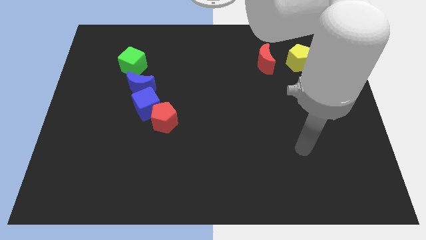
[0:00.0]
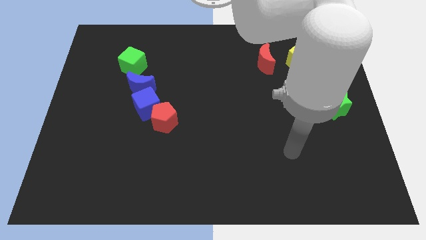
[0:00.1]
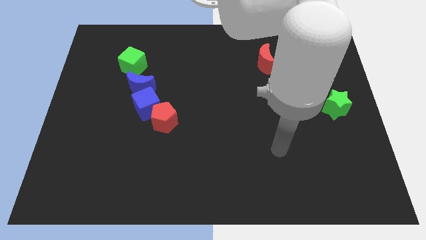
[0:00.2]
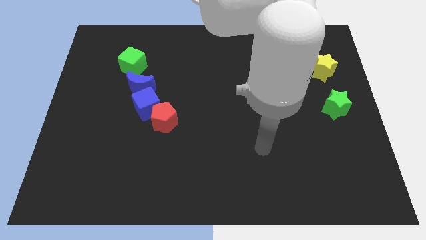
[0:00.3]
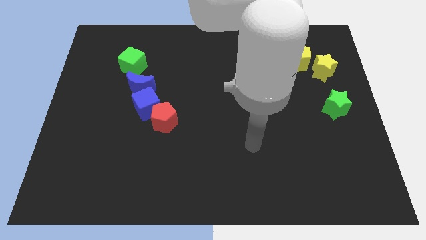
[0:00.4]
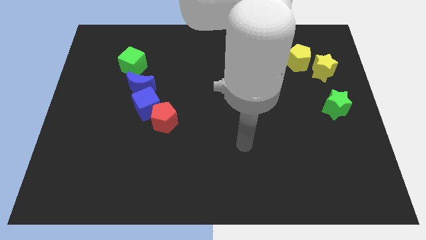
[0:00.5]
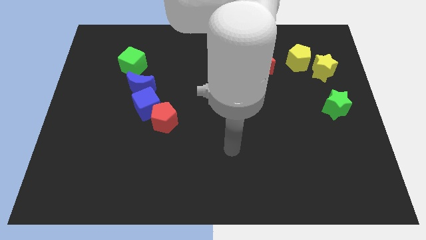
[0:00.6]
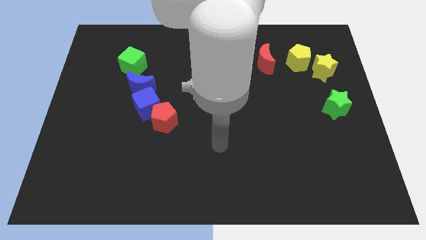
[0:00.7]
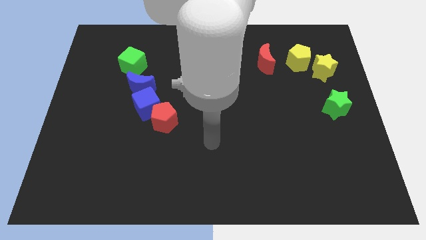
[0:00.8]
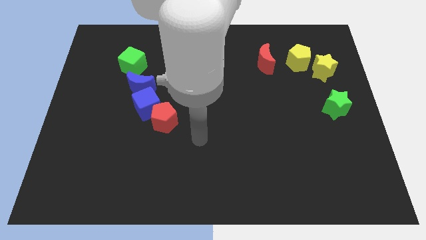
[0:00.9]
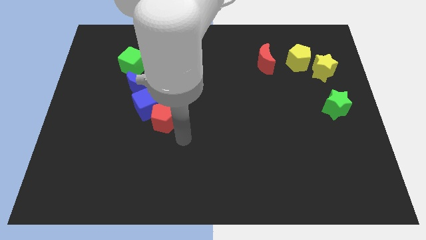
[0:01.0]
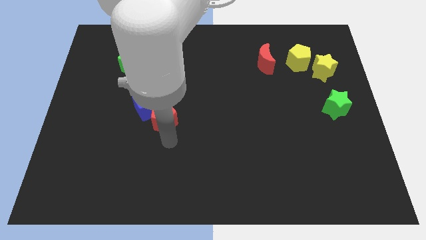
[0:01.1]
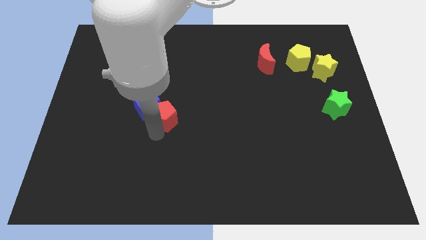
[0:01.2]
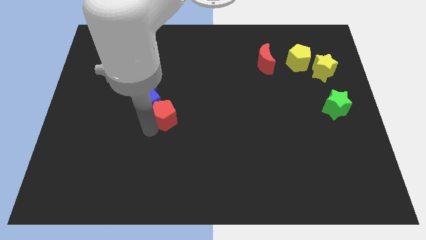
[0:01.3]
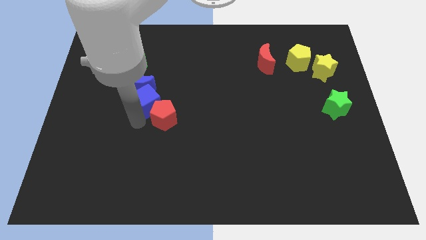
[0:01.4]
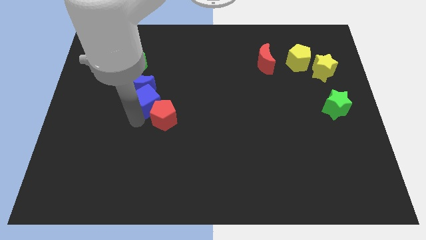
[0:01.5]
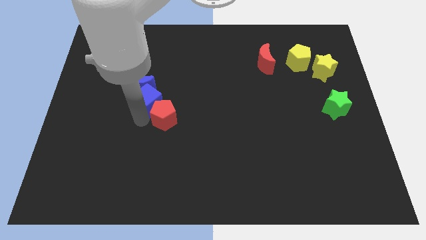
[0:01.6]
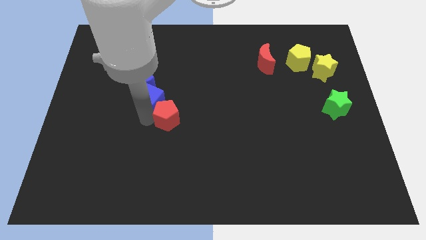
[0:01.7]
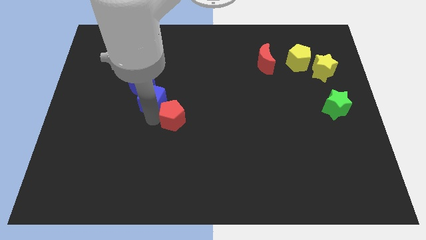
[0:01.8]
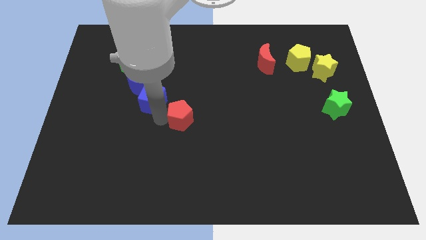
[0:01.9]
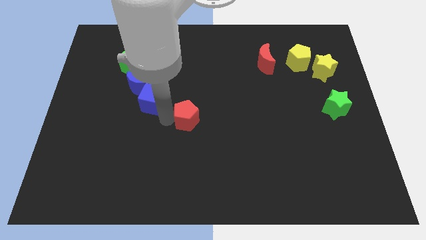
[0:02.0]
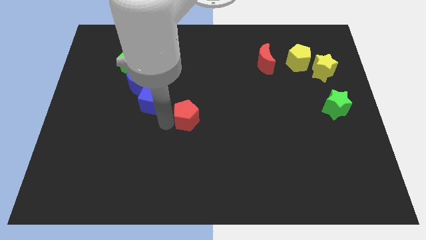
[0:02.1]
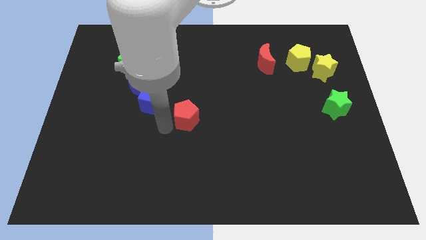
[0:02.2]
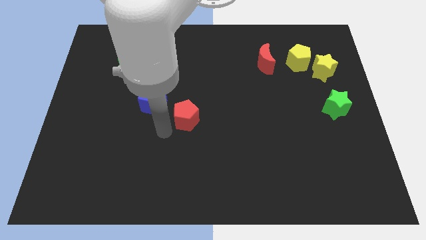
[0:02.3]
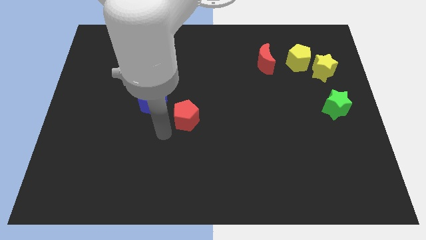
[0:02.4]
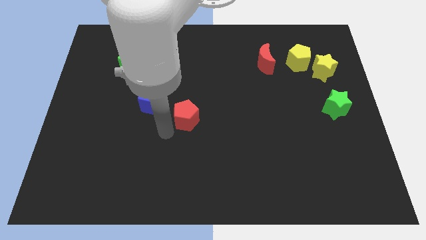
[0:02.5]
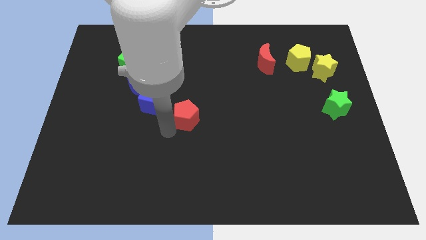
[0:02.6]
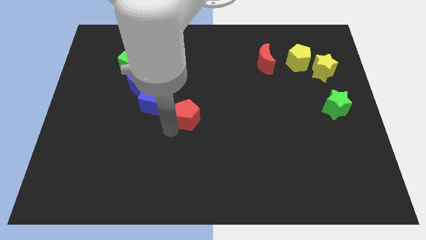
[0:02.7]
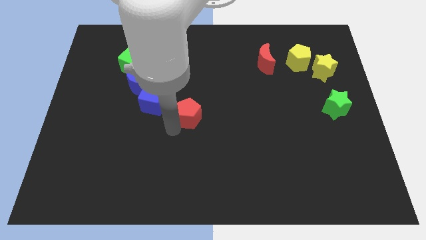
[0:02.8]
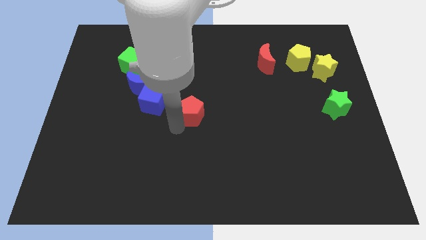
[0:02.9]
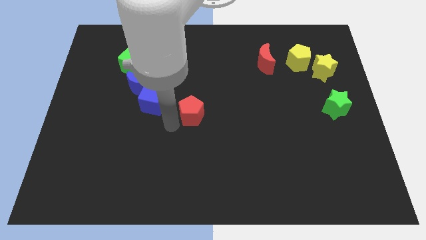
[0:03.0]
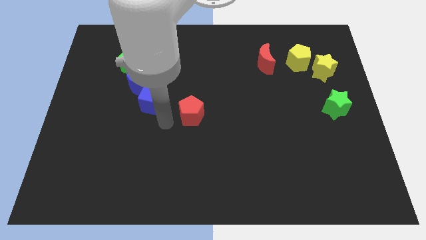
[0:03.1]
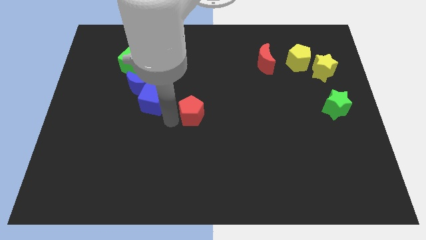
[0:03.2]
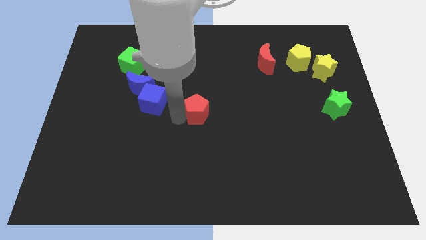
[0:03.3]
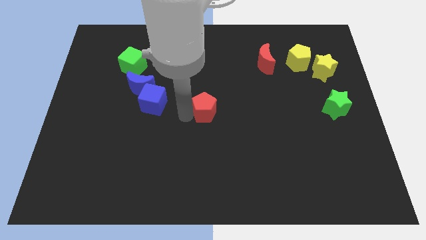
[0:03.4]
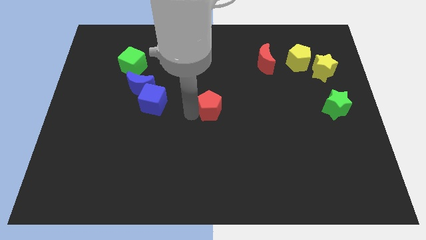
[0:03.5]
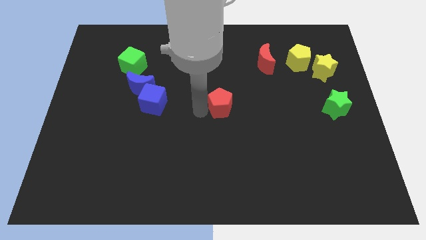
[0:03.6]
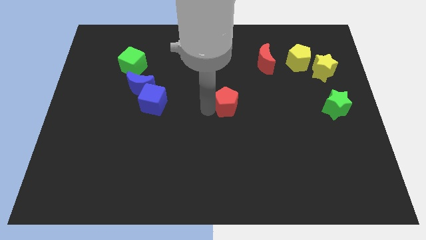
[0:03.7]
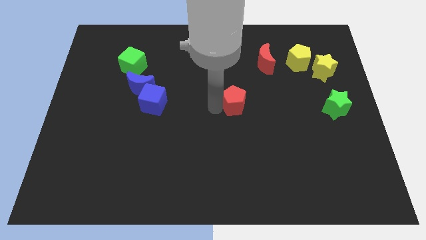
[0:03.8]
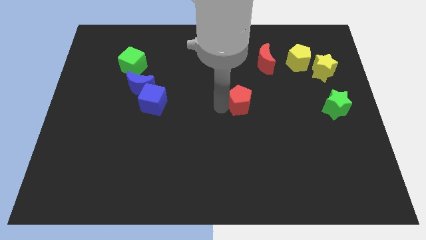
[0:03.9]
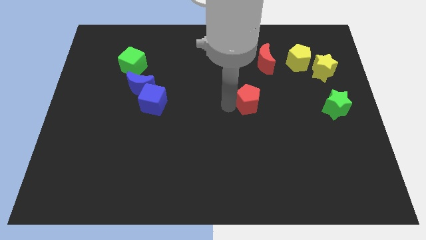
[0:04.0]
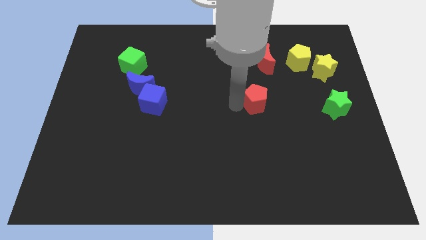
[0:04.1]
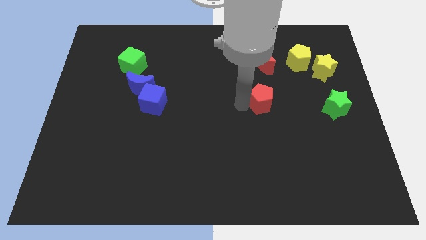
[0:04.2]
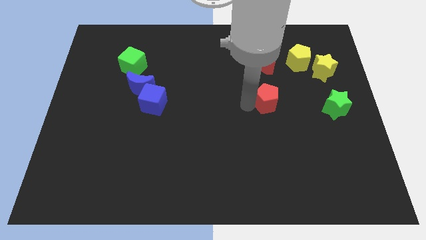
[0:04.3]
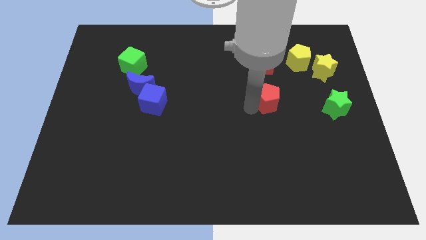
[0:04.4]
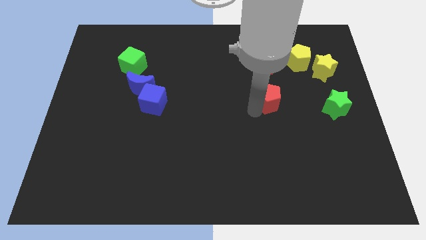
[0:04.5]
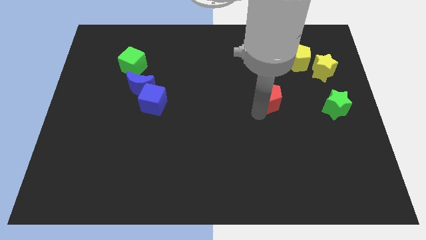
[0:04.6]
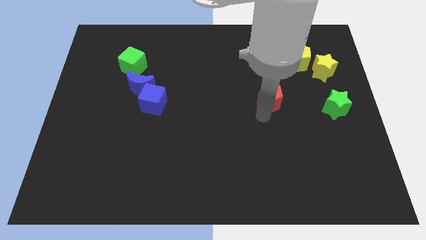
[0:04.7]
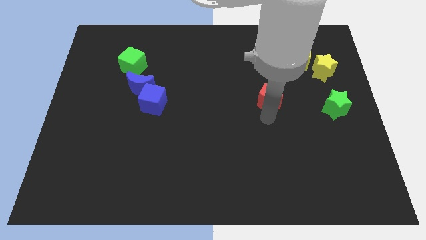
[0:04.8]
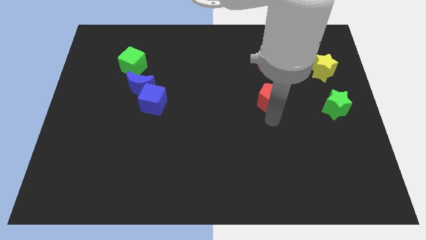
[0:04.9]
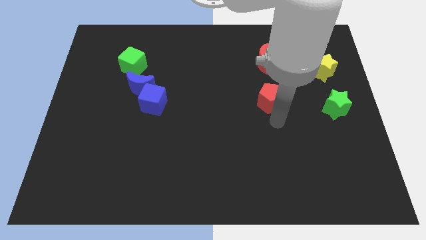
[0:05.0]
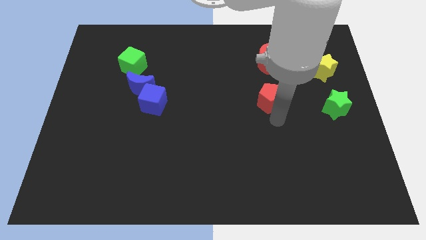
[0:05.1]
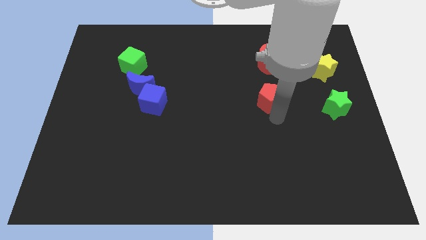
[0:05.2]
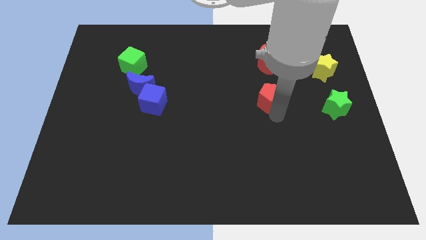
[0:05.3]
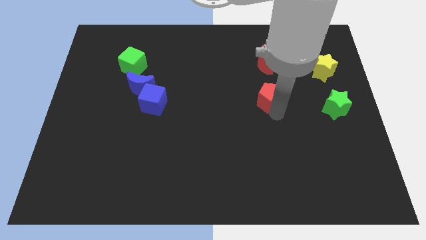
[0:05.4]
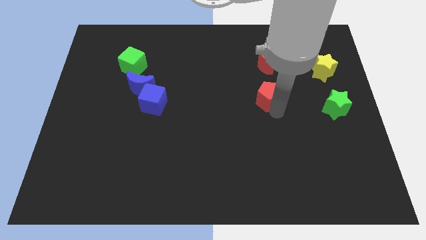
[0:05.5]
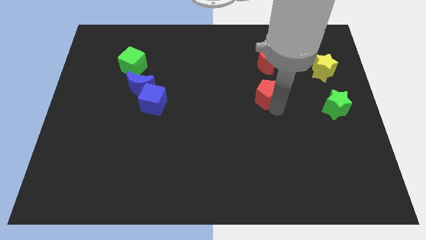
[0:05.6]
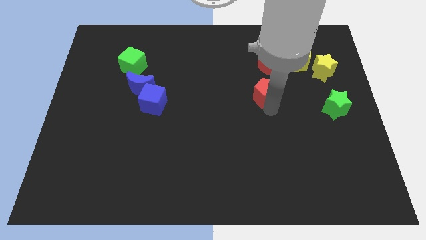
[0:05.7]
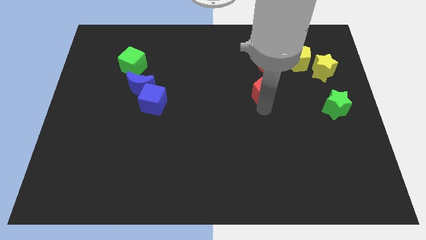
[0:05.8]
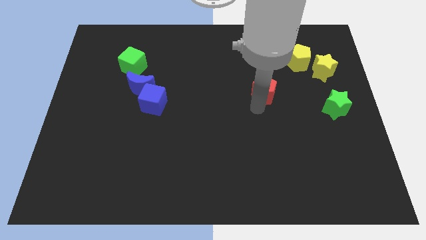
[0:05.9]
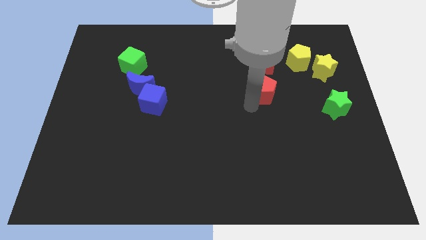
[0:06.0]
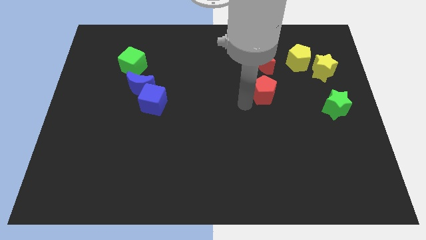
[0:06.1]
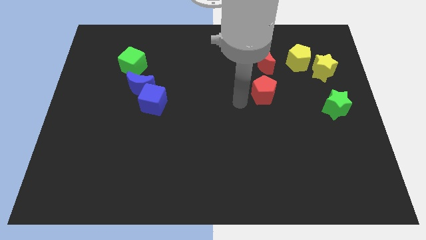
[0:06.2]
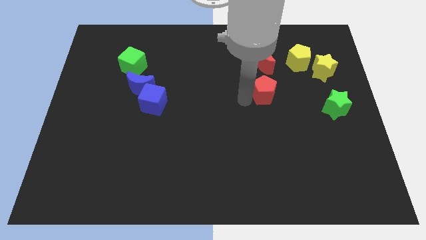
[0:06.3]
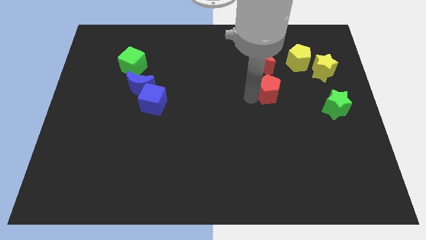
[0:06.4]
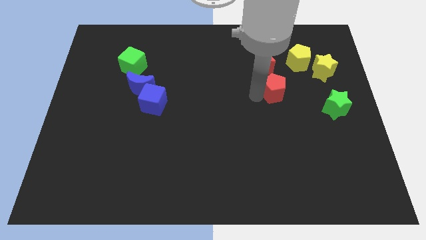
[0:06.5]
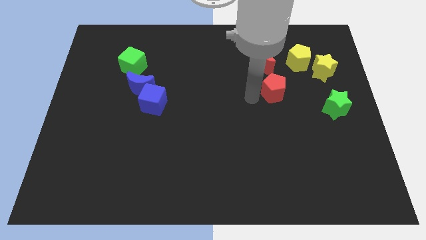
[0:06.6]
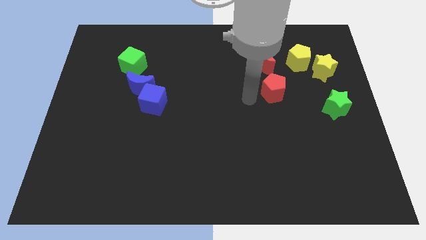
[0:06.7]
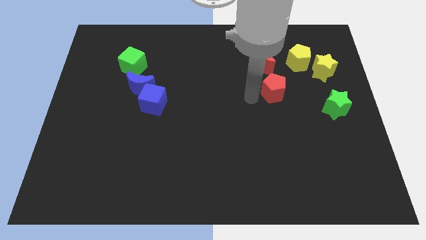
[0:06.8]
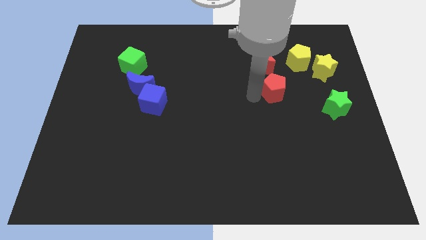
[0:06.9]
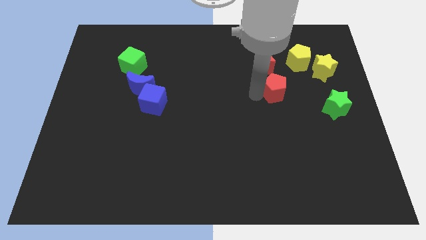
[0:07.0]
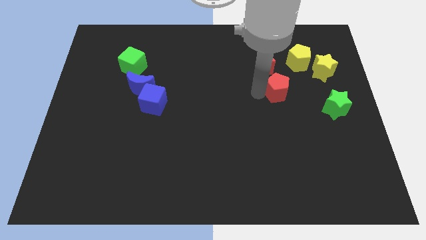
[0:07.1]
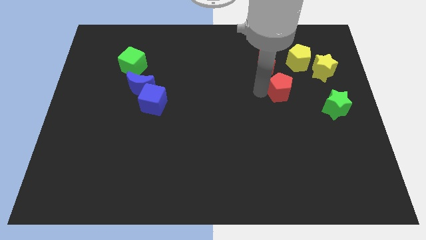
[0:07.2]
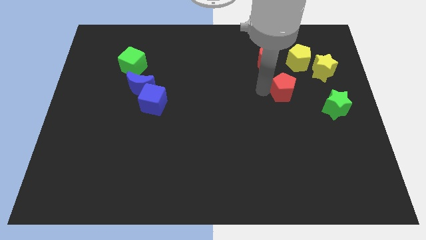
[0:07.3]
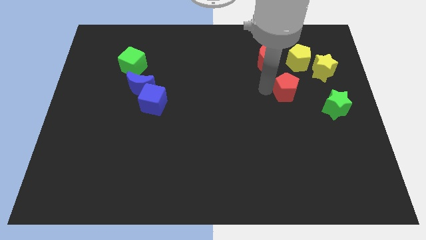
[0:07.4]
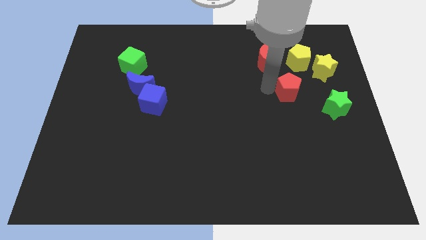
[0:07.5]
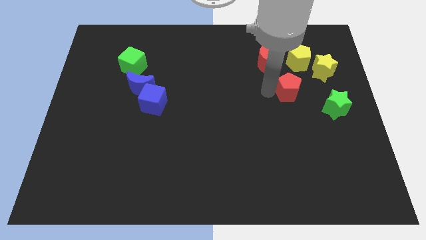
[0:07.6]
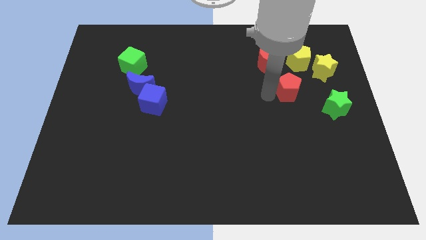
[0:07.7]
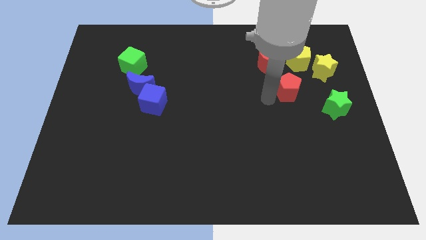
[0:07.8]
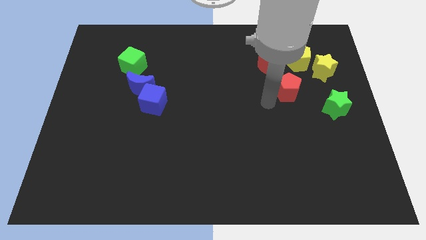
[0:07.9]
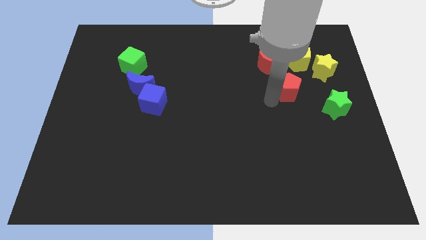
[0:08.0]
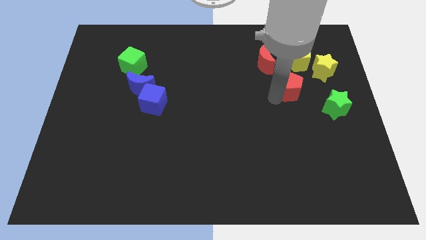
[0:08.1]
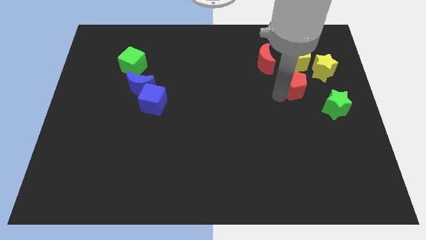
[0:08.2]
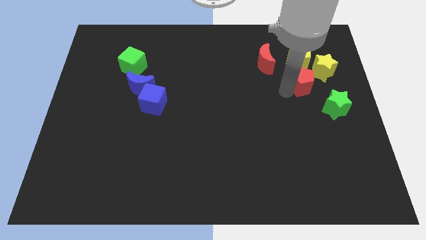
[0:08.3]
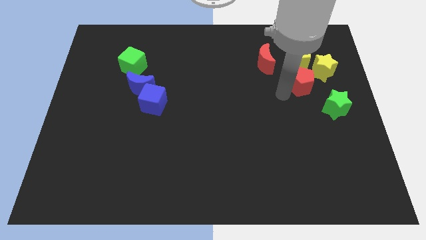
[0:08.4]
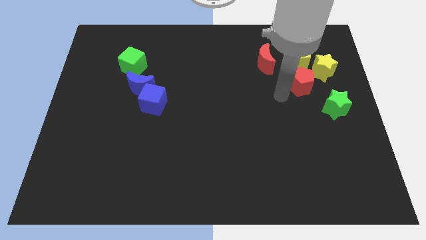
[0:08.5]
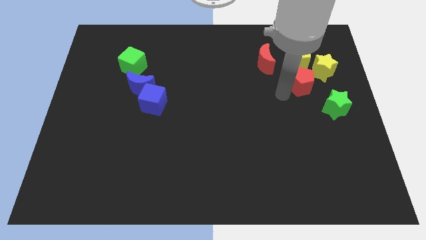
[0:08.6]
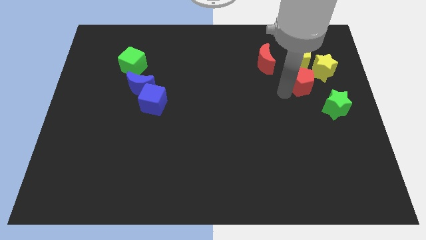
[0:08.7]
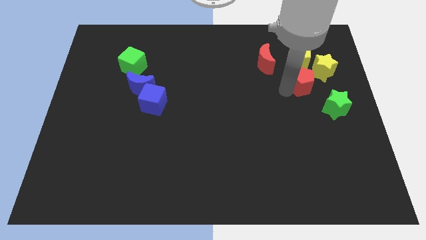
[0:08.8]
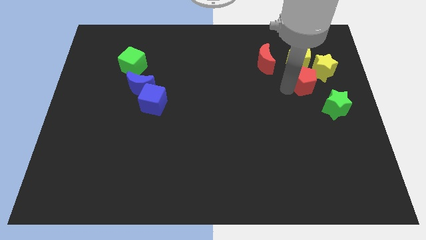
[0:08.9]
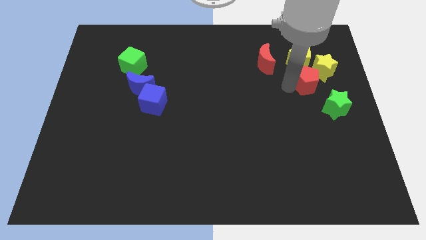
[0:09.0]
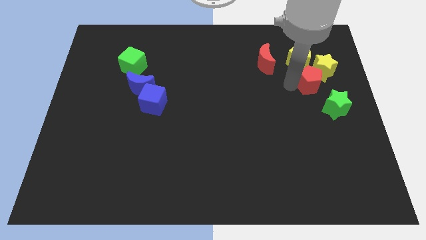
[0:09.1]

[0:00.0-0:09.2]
put the red pentagon to the yellow star
